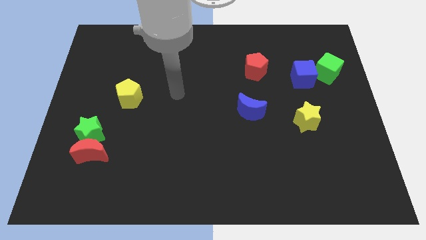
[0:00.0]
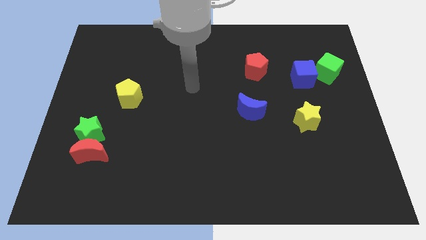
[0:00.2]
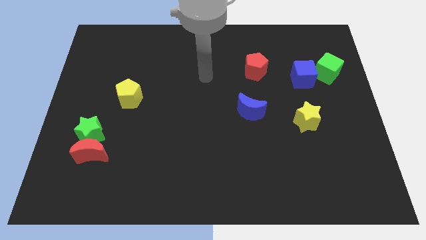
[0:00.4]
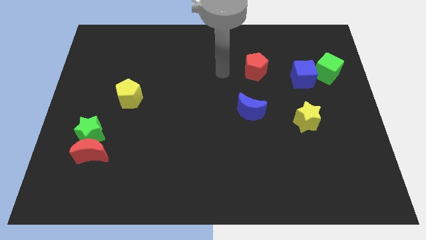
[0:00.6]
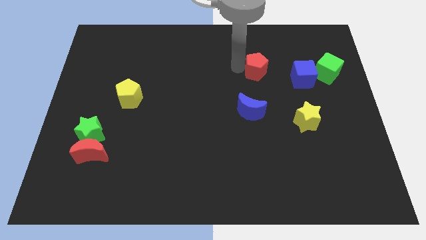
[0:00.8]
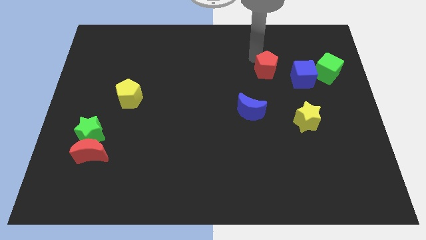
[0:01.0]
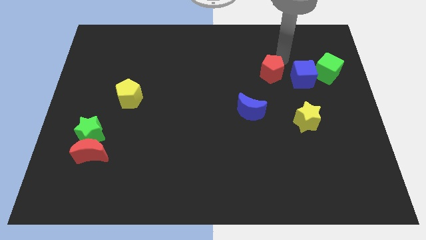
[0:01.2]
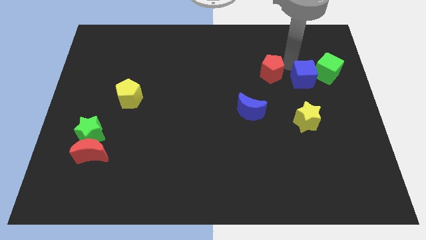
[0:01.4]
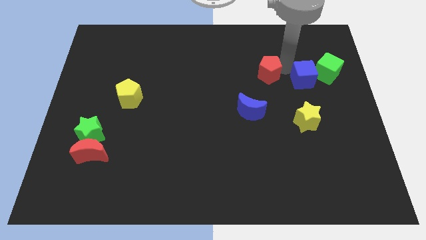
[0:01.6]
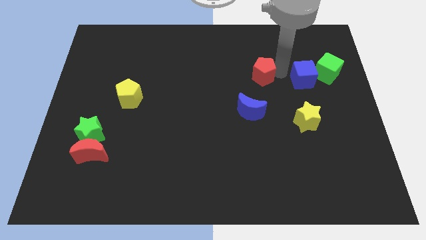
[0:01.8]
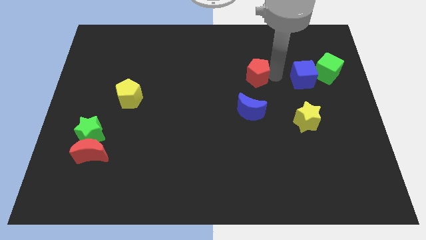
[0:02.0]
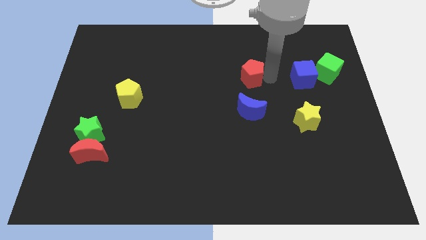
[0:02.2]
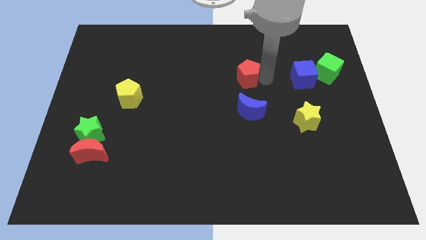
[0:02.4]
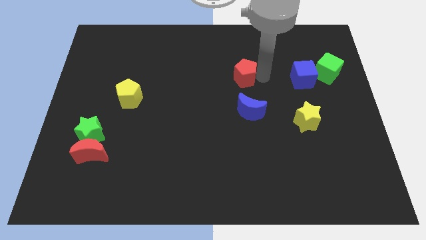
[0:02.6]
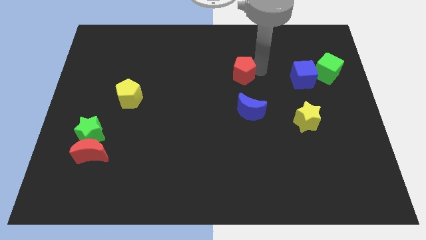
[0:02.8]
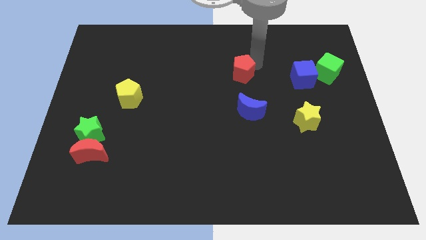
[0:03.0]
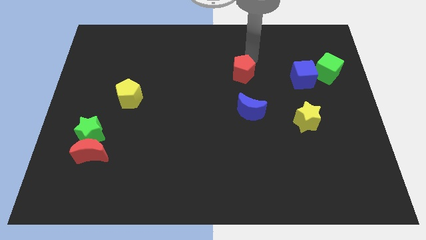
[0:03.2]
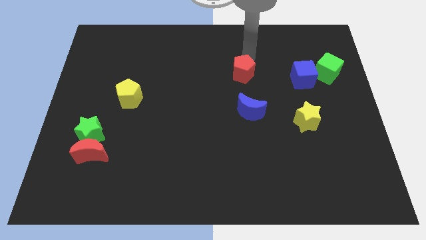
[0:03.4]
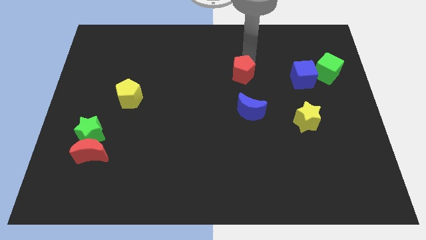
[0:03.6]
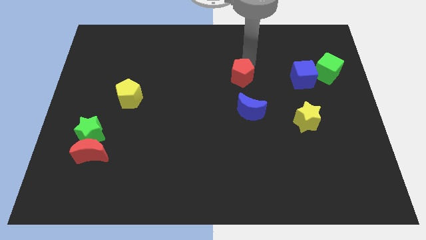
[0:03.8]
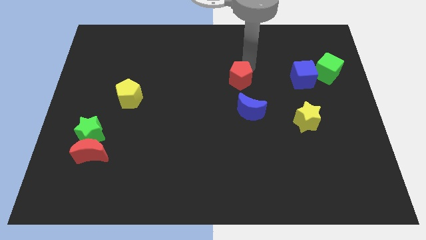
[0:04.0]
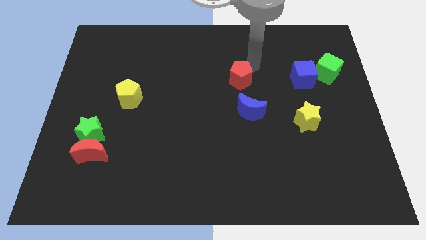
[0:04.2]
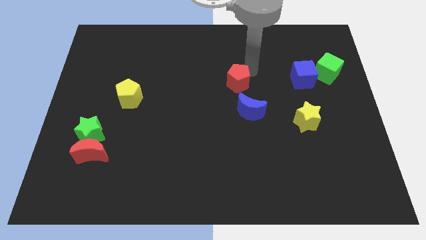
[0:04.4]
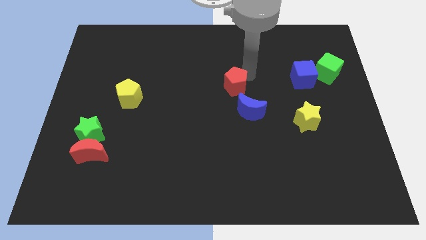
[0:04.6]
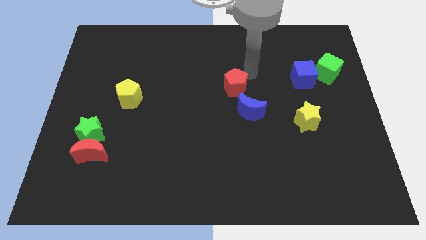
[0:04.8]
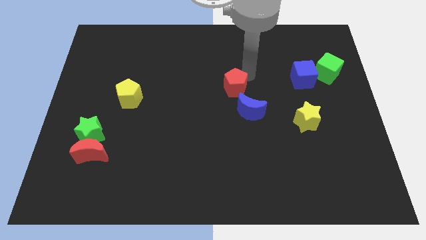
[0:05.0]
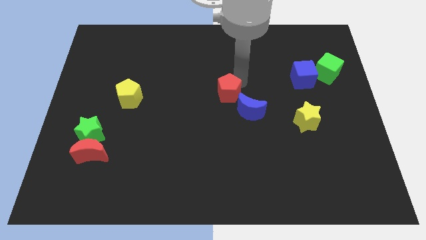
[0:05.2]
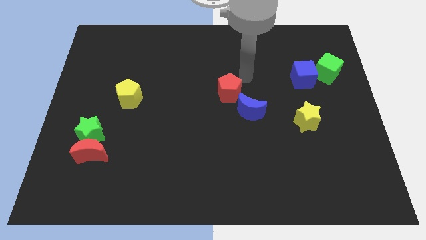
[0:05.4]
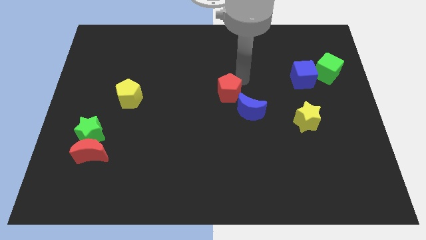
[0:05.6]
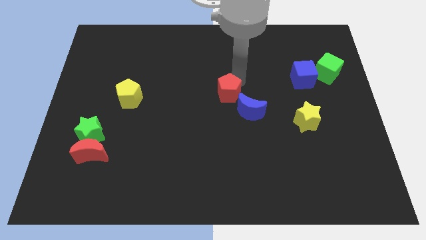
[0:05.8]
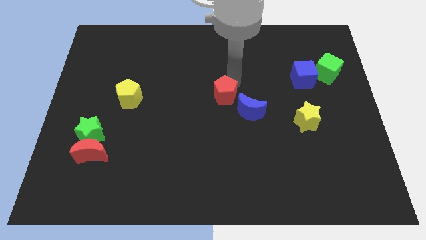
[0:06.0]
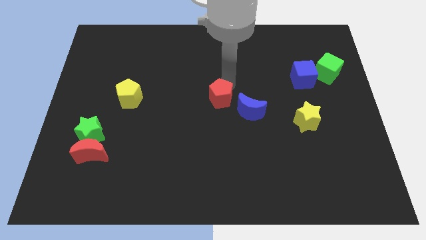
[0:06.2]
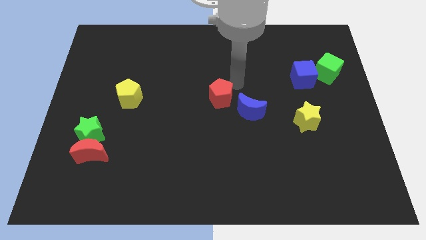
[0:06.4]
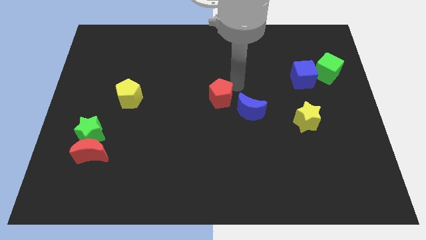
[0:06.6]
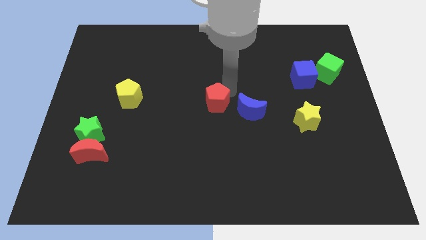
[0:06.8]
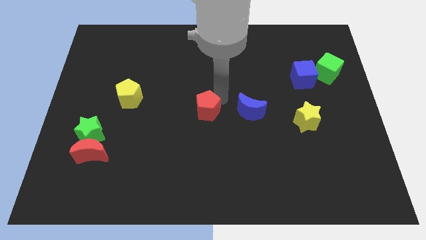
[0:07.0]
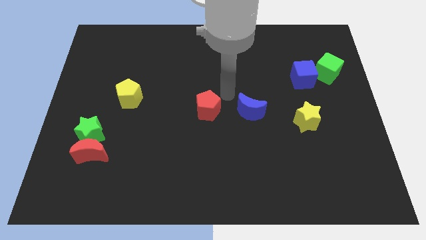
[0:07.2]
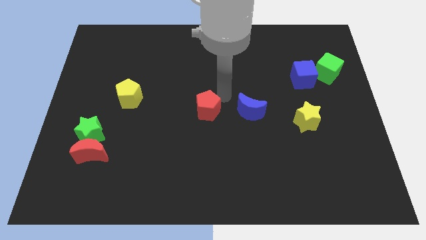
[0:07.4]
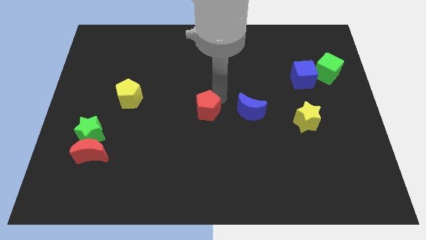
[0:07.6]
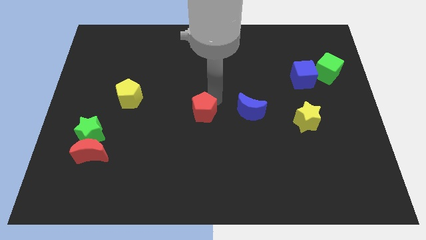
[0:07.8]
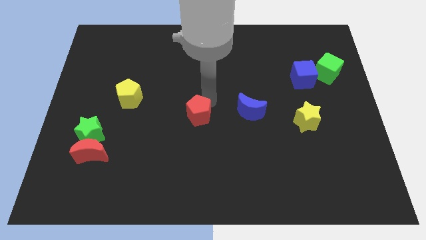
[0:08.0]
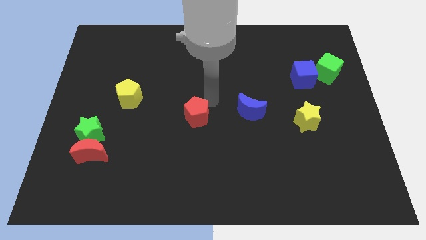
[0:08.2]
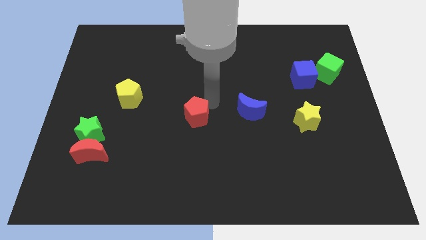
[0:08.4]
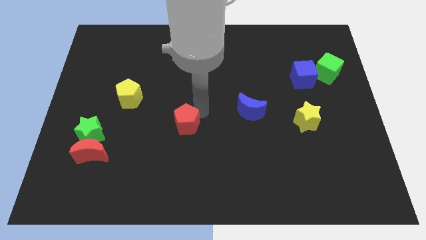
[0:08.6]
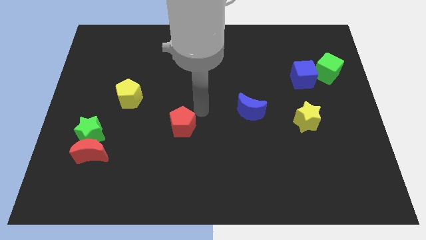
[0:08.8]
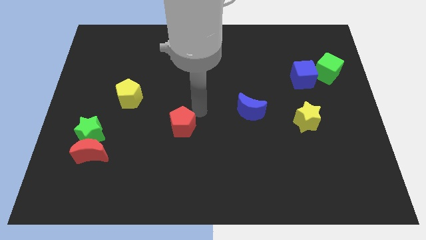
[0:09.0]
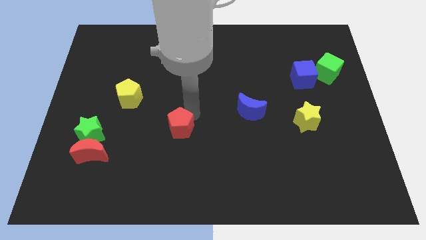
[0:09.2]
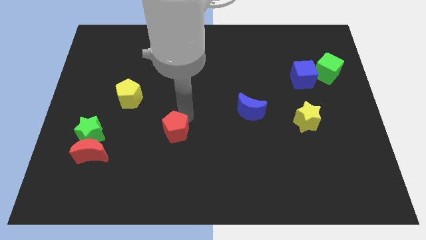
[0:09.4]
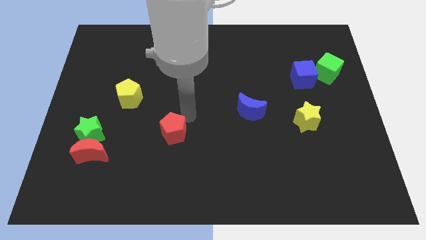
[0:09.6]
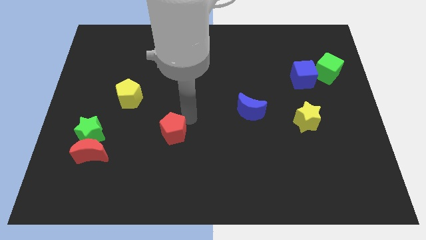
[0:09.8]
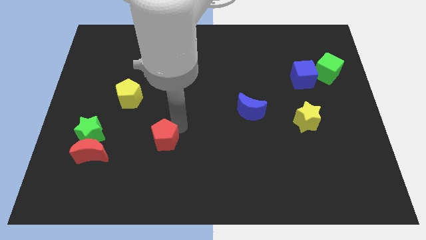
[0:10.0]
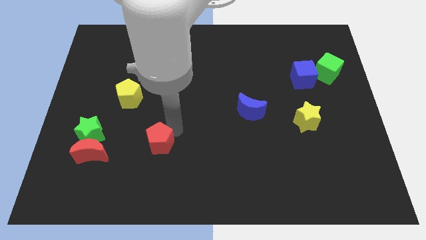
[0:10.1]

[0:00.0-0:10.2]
move the red pentagon right of the red moon

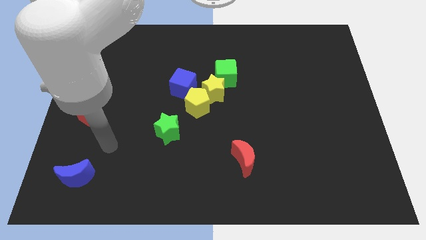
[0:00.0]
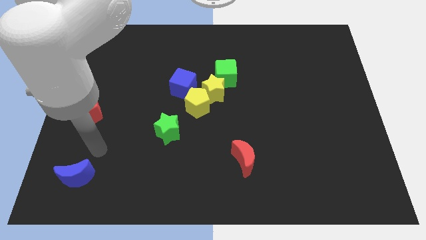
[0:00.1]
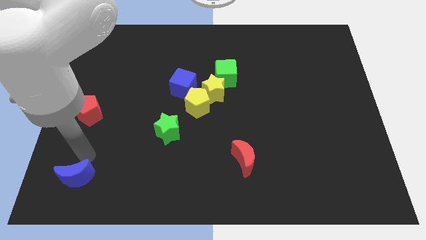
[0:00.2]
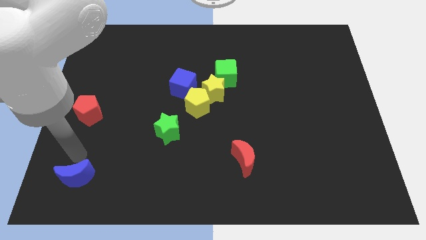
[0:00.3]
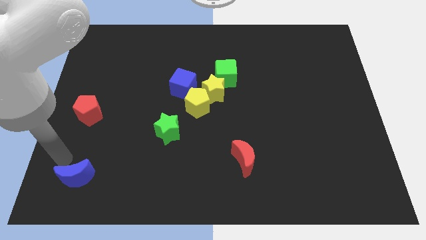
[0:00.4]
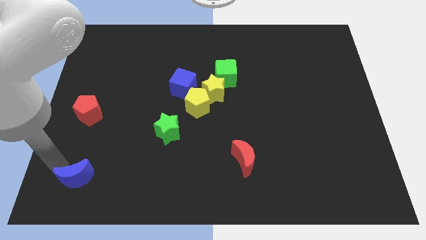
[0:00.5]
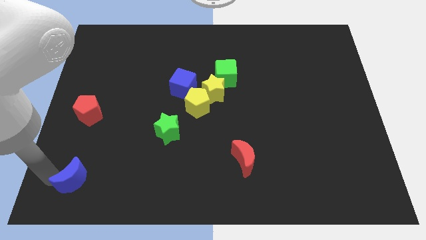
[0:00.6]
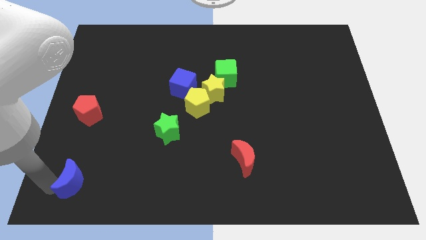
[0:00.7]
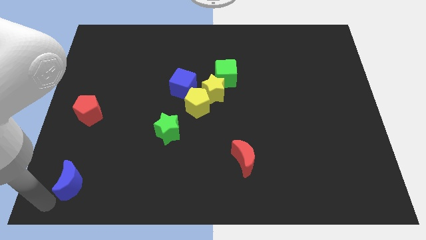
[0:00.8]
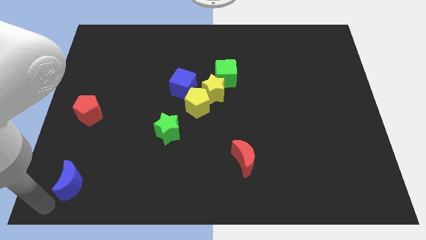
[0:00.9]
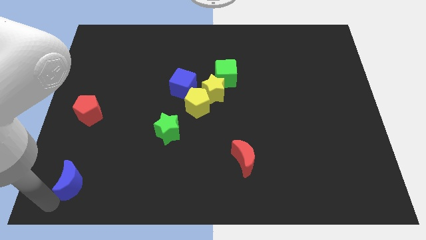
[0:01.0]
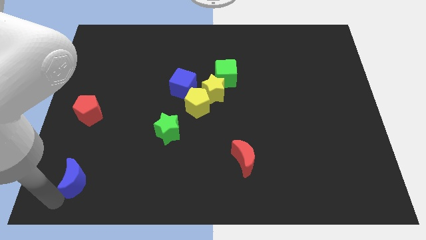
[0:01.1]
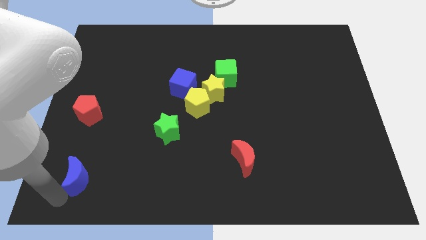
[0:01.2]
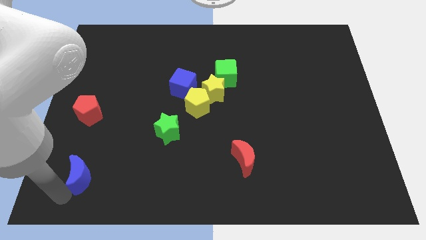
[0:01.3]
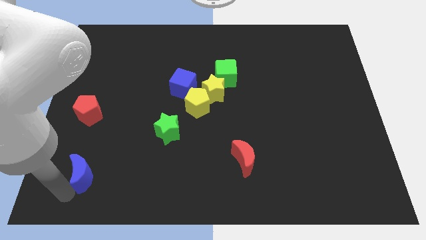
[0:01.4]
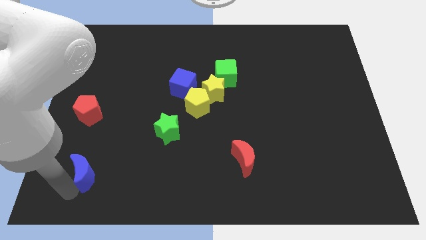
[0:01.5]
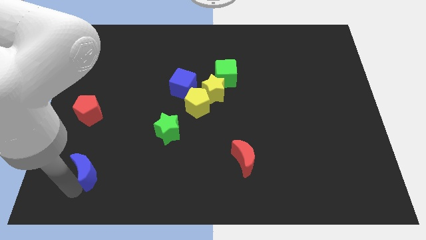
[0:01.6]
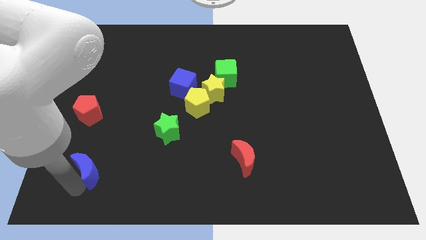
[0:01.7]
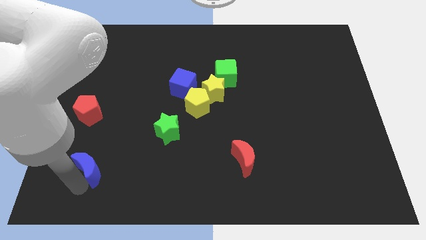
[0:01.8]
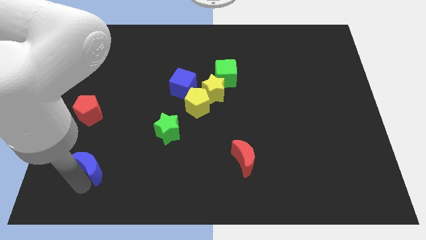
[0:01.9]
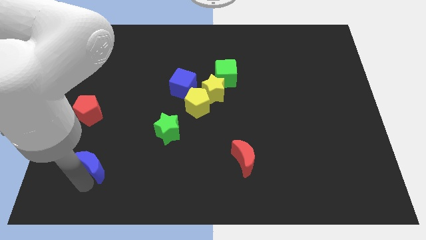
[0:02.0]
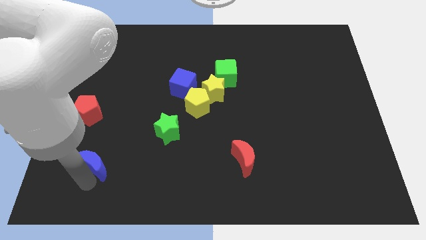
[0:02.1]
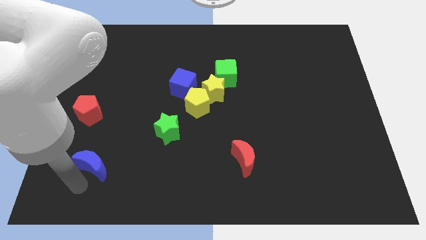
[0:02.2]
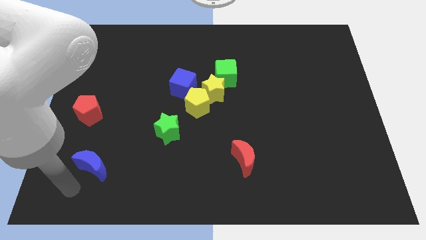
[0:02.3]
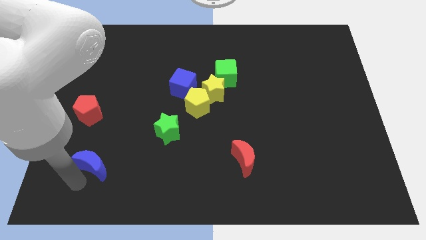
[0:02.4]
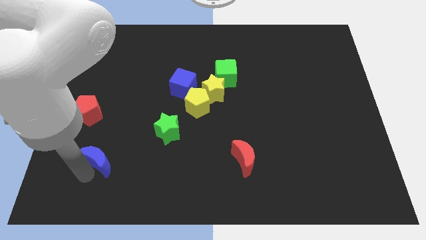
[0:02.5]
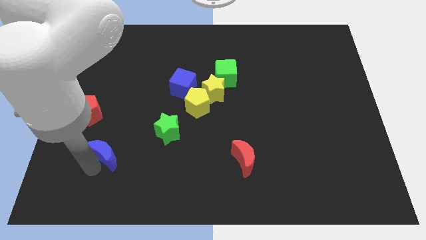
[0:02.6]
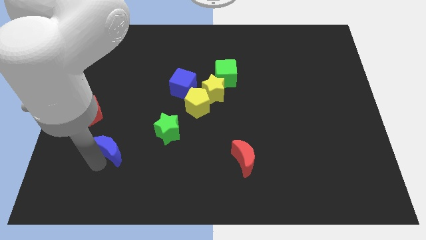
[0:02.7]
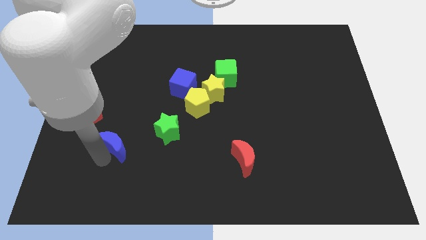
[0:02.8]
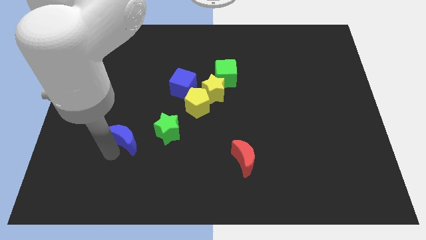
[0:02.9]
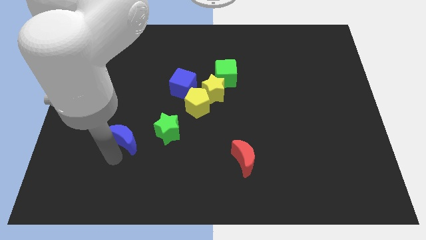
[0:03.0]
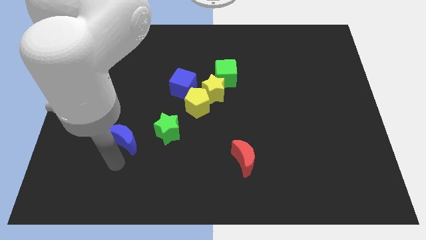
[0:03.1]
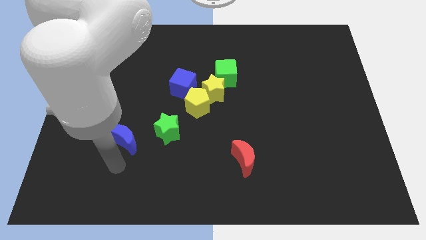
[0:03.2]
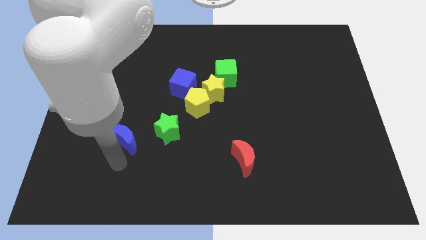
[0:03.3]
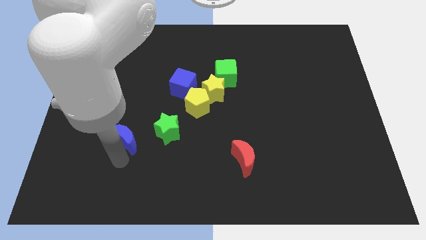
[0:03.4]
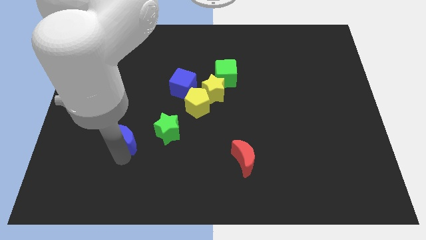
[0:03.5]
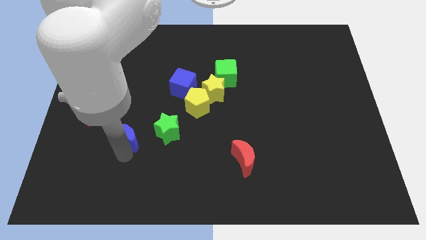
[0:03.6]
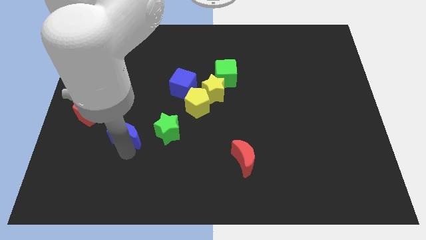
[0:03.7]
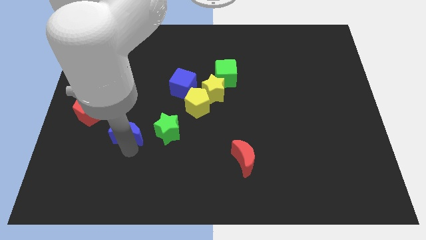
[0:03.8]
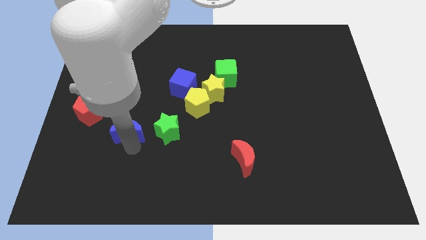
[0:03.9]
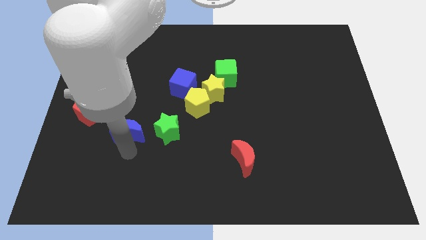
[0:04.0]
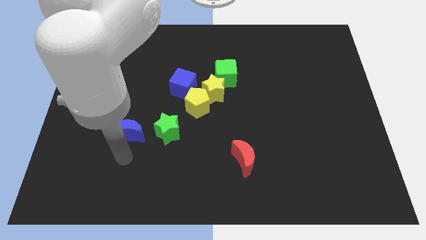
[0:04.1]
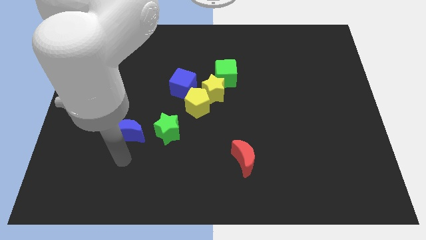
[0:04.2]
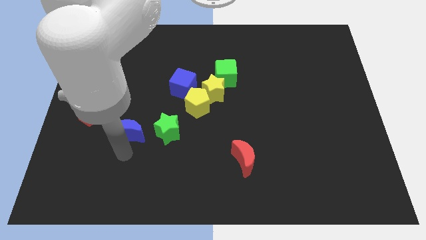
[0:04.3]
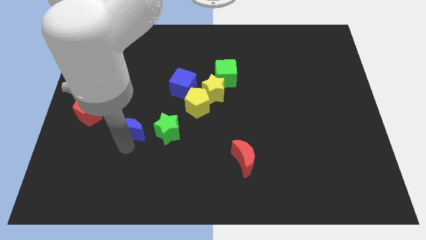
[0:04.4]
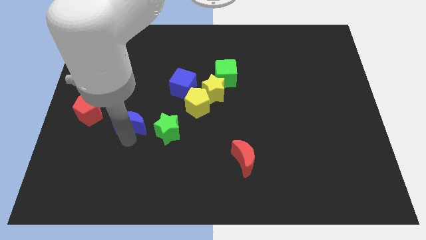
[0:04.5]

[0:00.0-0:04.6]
slide the blue moon to the right of the red pentagon
